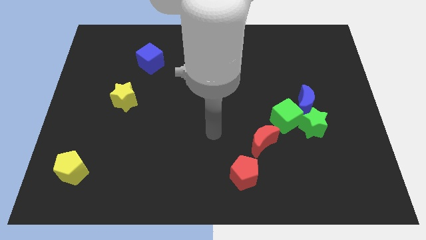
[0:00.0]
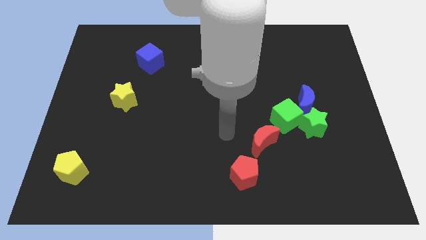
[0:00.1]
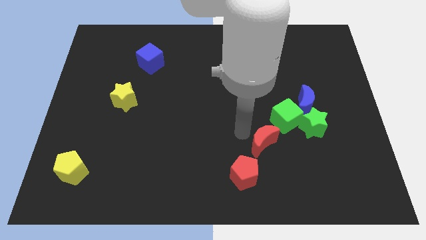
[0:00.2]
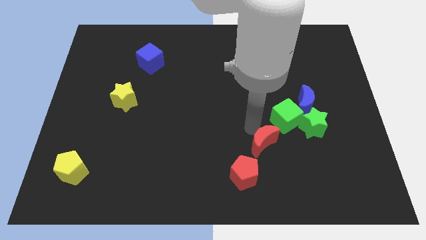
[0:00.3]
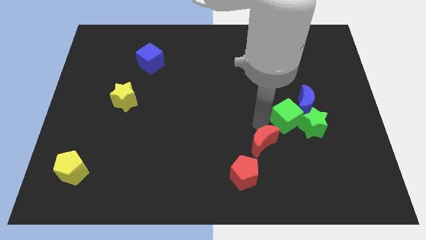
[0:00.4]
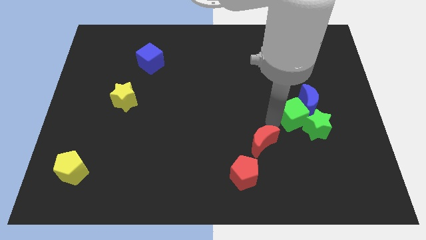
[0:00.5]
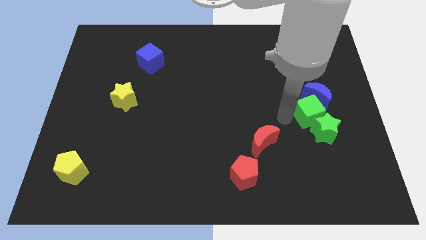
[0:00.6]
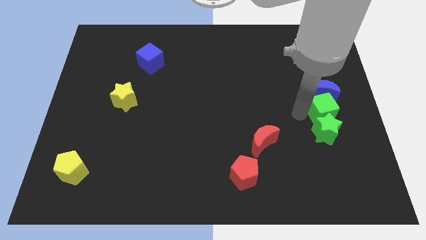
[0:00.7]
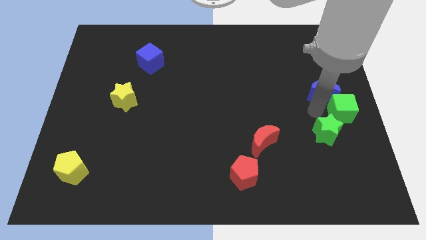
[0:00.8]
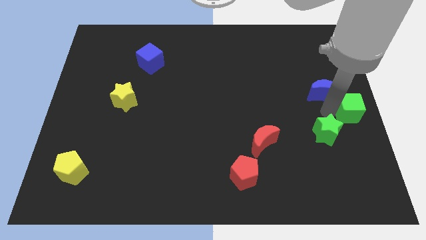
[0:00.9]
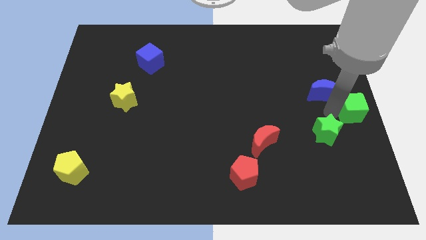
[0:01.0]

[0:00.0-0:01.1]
separate the green star from the blue moon and green cube

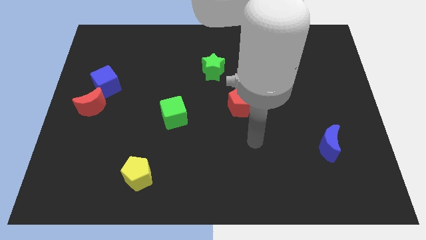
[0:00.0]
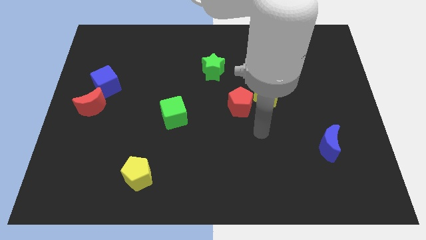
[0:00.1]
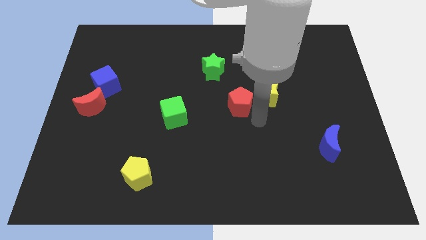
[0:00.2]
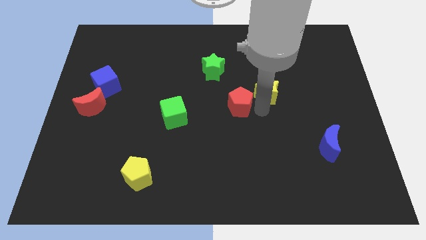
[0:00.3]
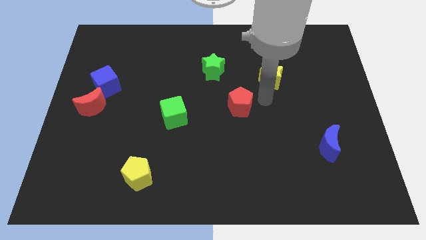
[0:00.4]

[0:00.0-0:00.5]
move the red pentagon away from the yellow star

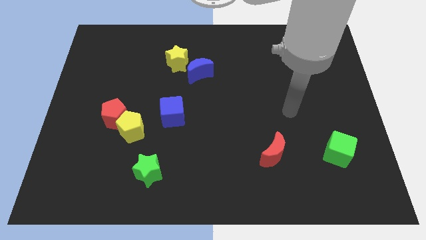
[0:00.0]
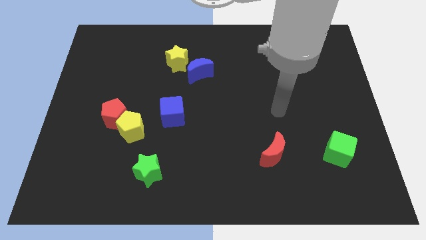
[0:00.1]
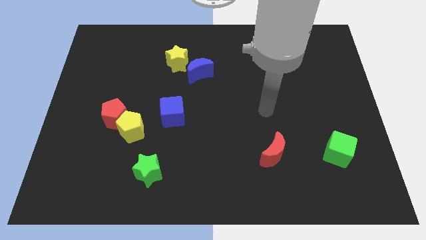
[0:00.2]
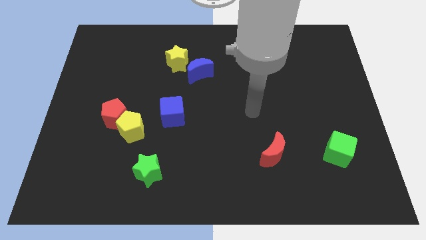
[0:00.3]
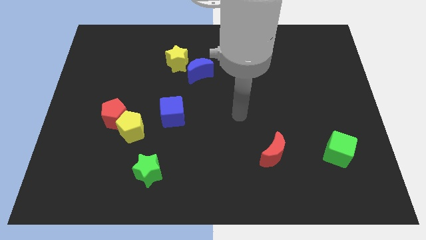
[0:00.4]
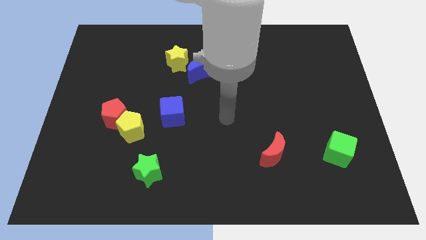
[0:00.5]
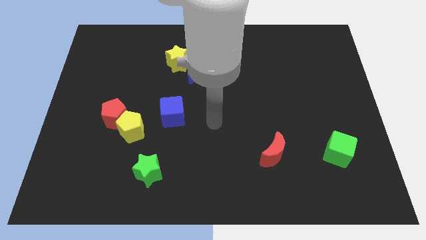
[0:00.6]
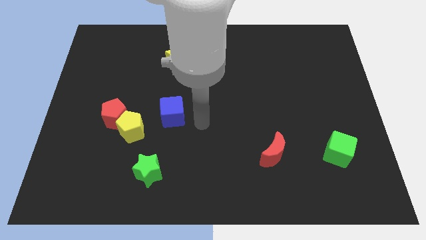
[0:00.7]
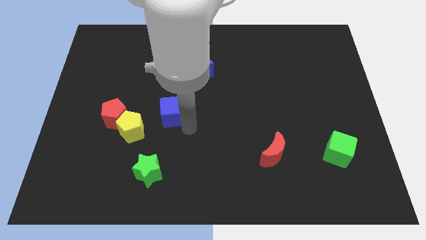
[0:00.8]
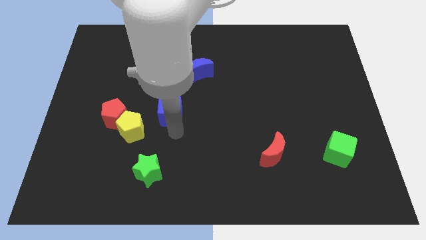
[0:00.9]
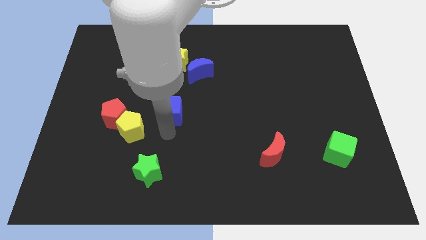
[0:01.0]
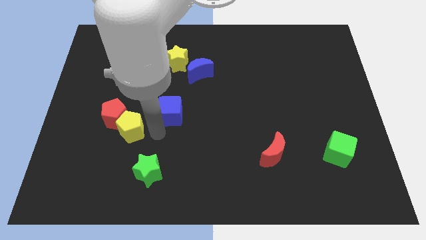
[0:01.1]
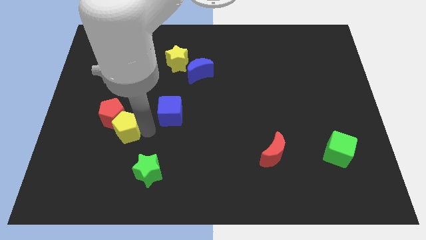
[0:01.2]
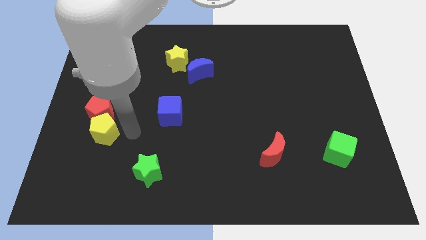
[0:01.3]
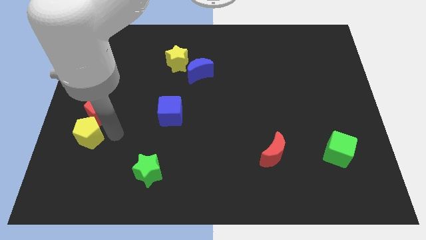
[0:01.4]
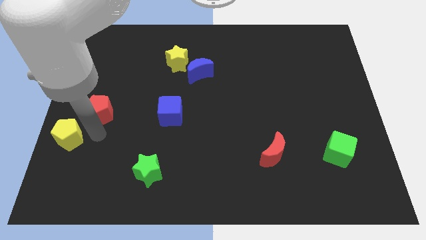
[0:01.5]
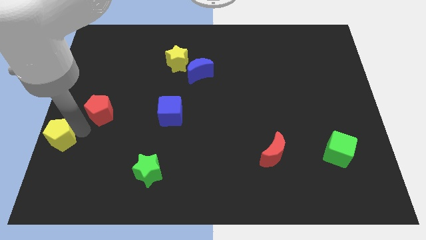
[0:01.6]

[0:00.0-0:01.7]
move the red pentagon away from the yellow pentagon

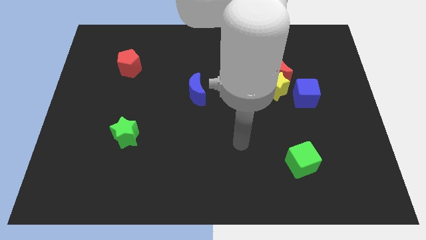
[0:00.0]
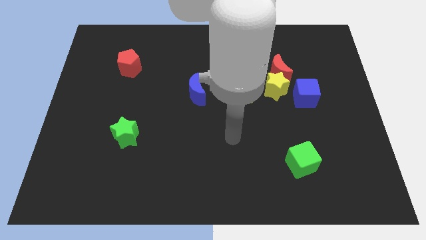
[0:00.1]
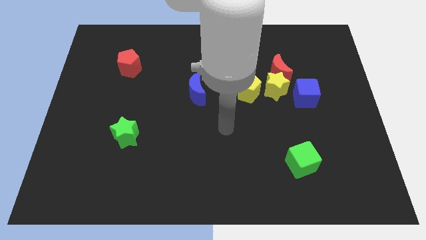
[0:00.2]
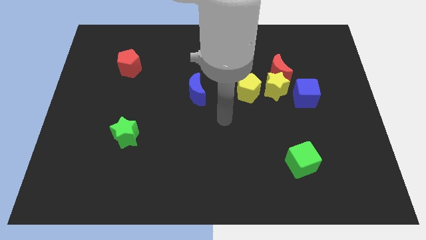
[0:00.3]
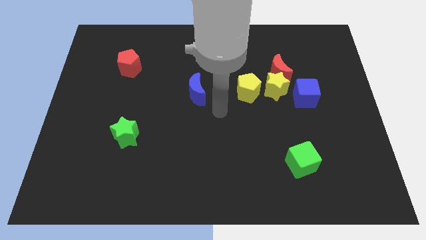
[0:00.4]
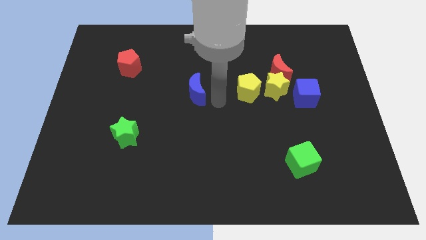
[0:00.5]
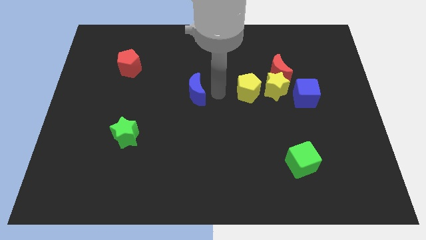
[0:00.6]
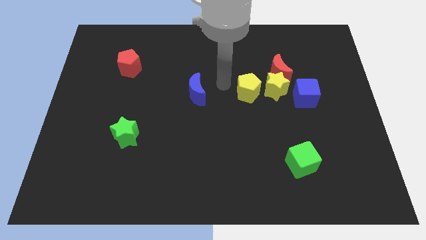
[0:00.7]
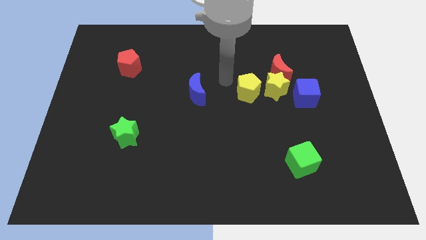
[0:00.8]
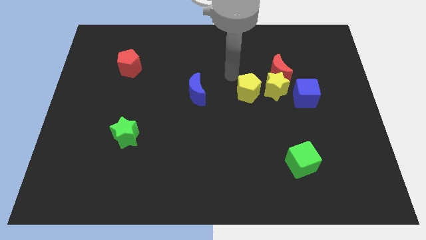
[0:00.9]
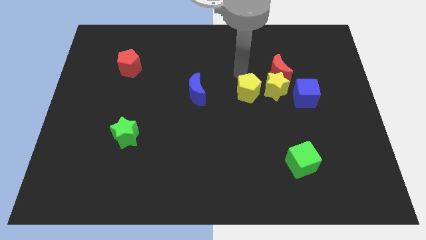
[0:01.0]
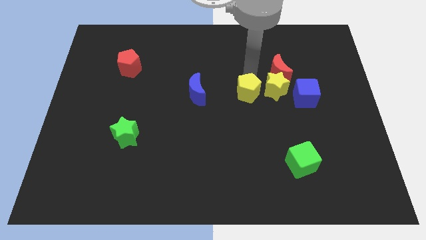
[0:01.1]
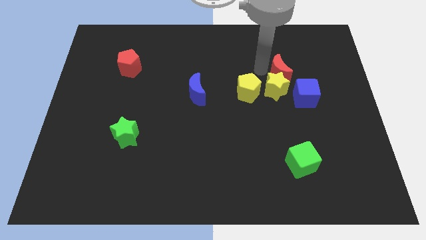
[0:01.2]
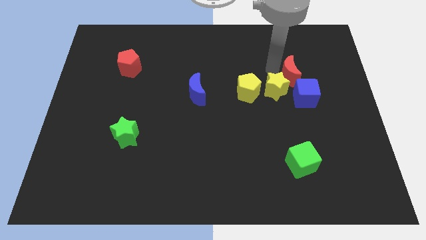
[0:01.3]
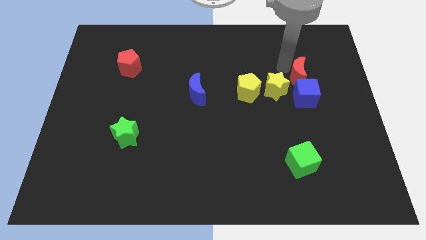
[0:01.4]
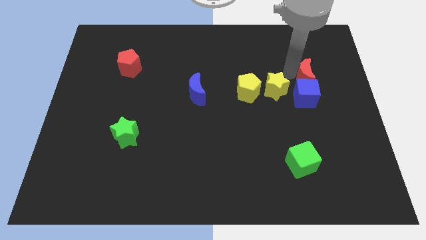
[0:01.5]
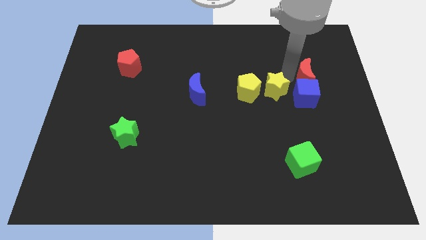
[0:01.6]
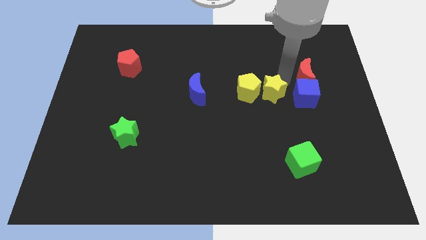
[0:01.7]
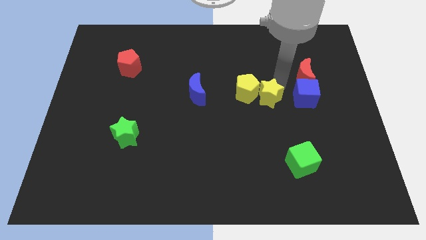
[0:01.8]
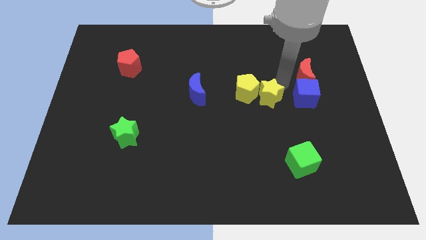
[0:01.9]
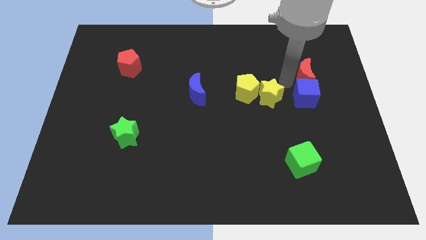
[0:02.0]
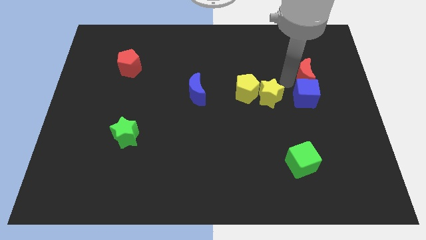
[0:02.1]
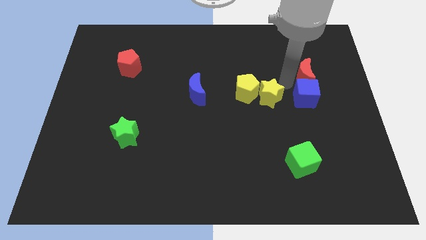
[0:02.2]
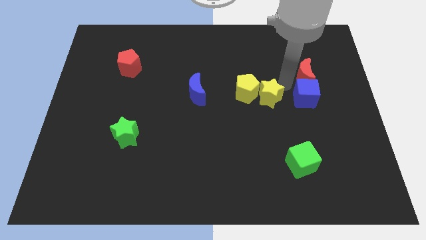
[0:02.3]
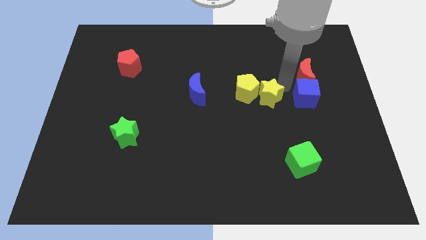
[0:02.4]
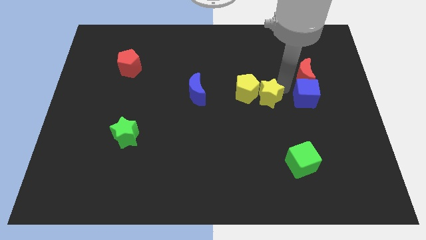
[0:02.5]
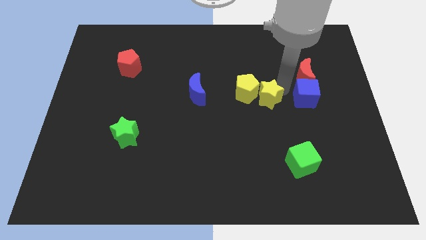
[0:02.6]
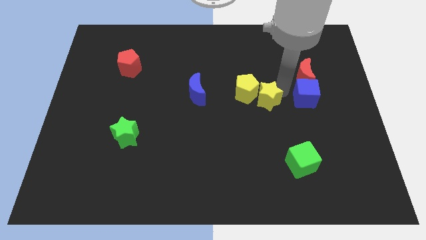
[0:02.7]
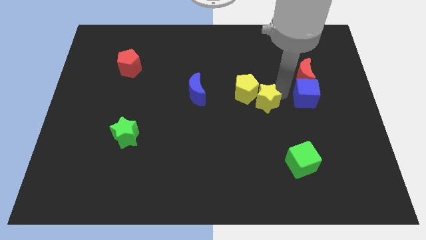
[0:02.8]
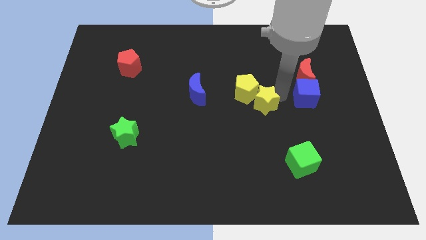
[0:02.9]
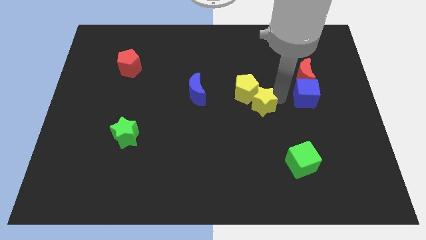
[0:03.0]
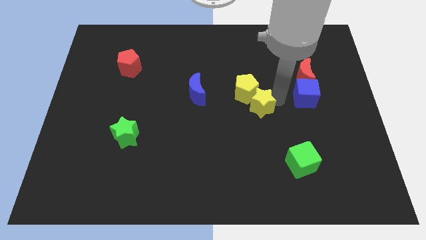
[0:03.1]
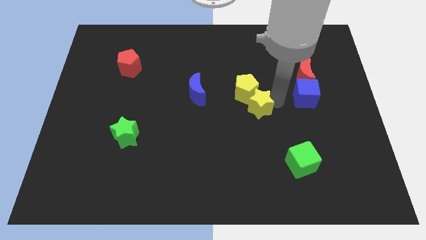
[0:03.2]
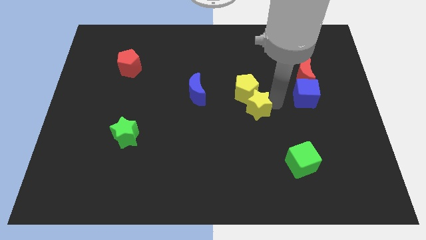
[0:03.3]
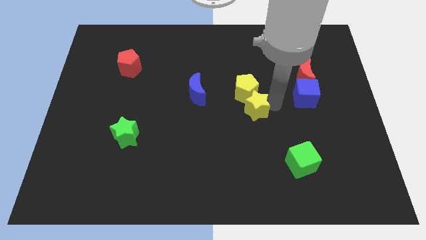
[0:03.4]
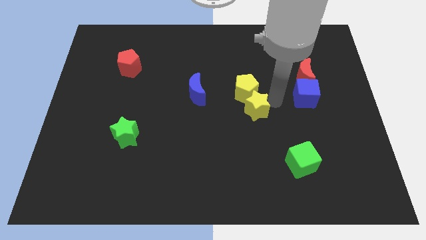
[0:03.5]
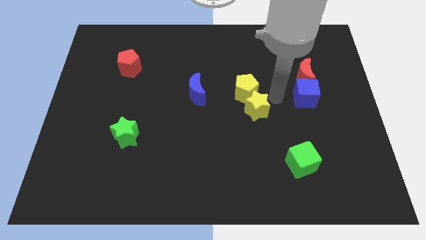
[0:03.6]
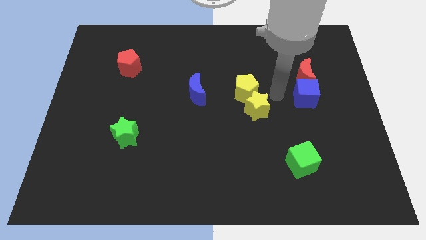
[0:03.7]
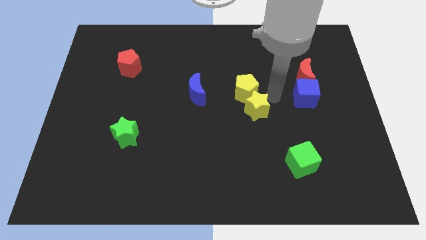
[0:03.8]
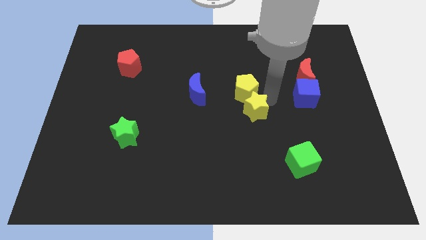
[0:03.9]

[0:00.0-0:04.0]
separate the yellow star from the red moon, yellow pentagon, and blue cube

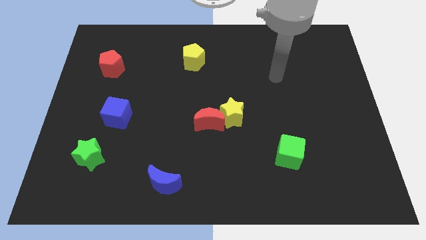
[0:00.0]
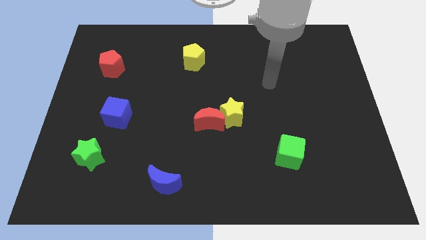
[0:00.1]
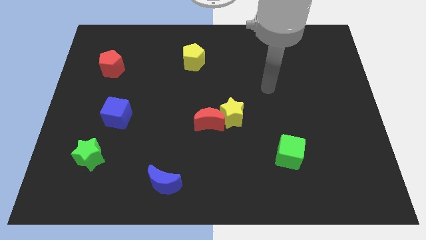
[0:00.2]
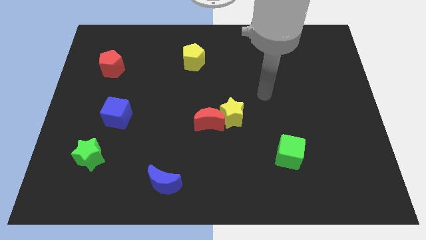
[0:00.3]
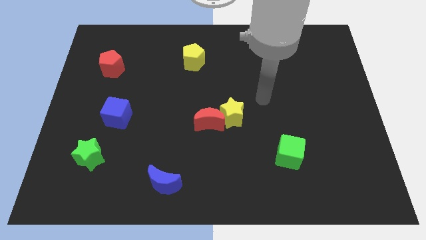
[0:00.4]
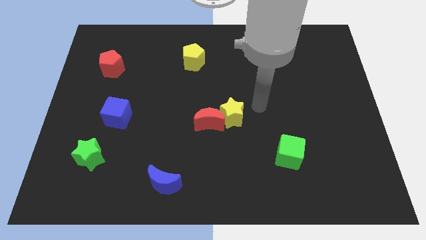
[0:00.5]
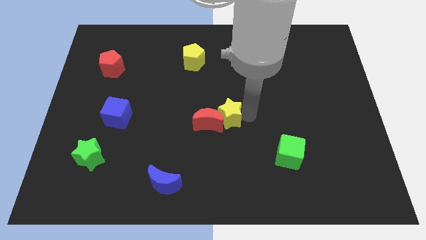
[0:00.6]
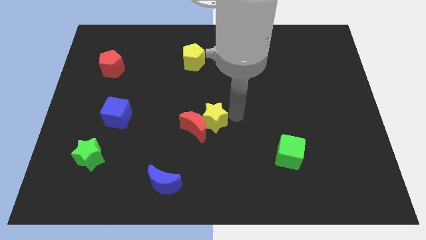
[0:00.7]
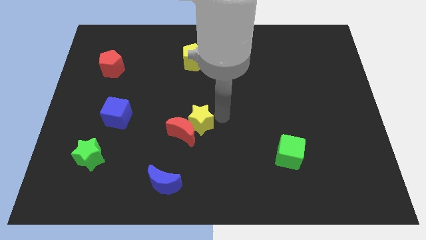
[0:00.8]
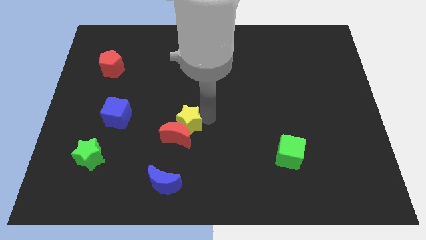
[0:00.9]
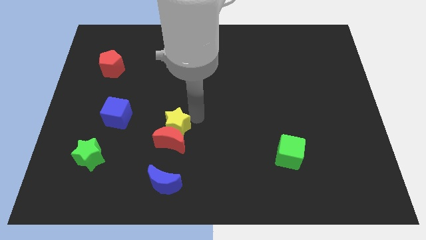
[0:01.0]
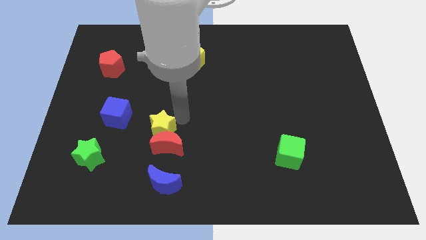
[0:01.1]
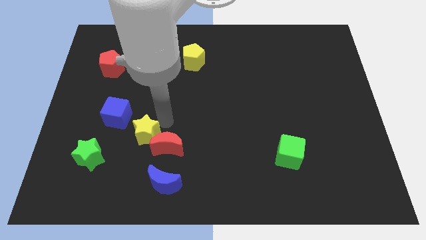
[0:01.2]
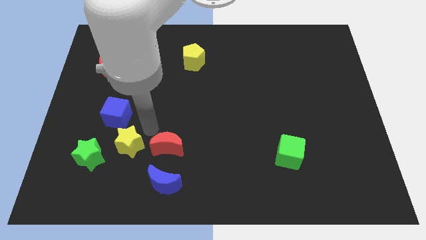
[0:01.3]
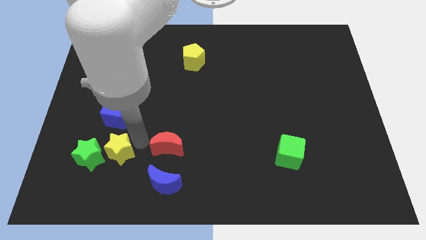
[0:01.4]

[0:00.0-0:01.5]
separate the red moon from the yellow star

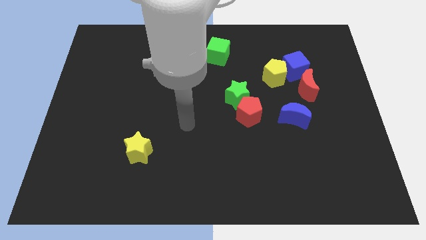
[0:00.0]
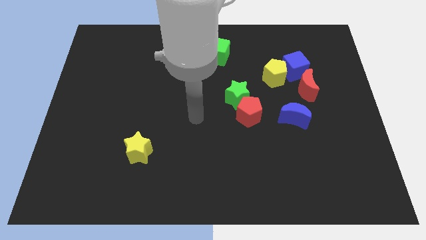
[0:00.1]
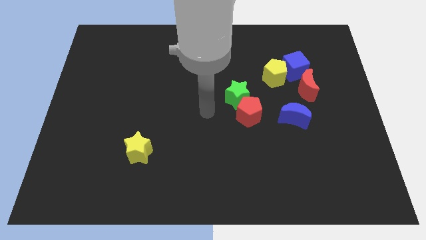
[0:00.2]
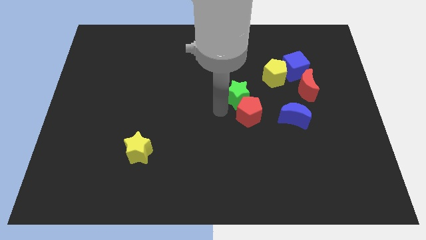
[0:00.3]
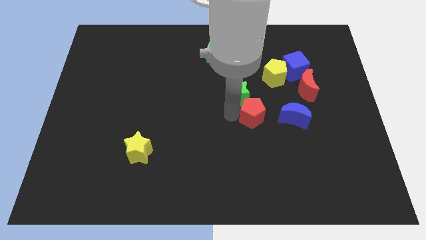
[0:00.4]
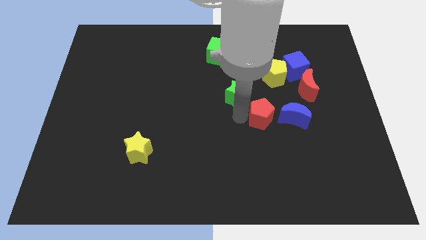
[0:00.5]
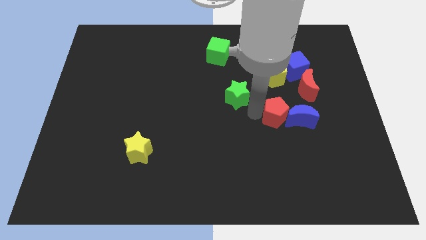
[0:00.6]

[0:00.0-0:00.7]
pull the green star apart from the red pentagon
